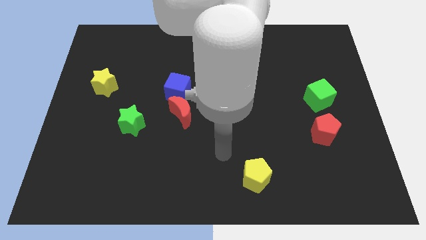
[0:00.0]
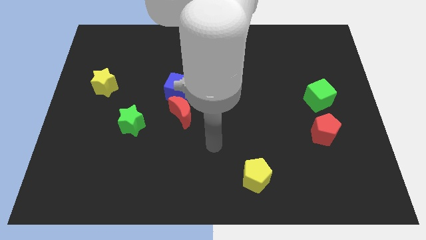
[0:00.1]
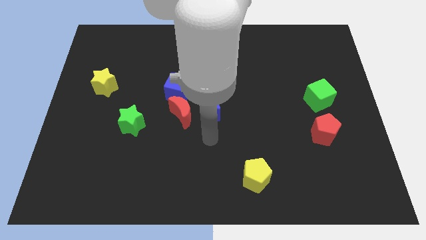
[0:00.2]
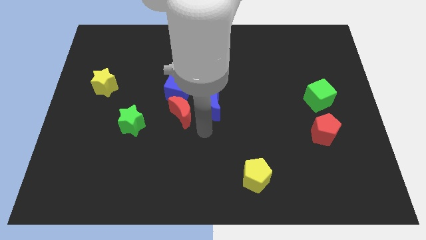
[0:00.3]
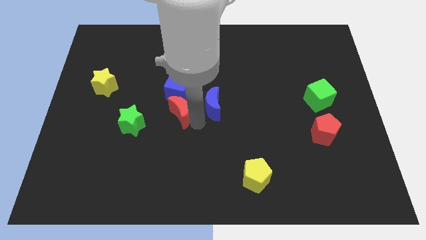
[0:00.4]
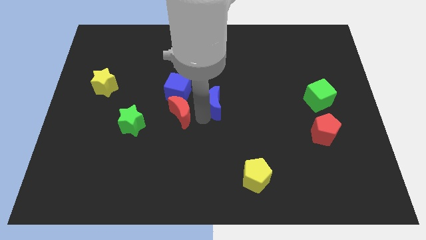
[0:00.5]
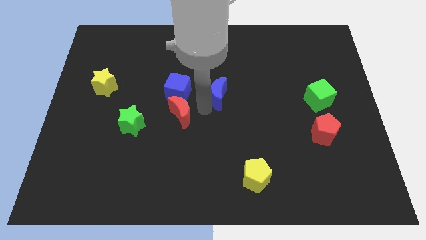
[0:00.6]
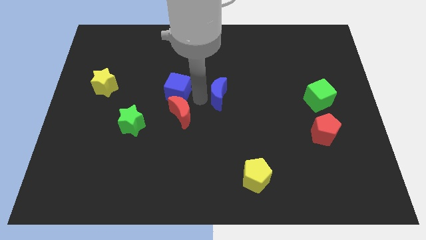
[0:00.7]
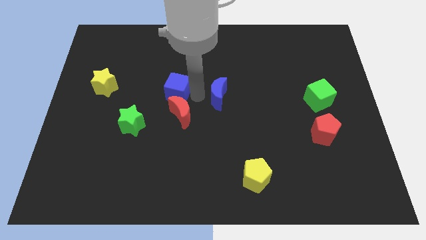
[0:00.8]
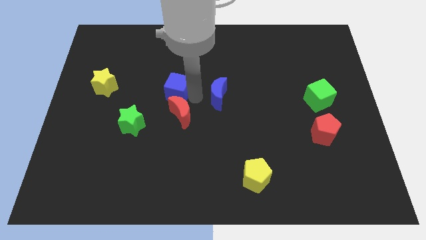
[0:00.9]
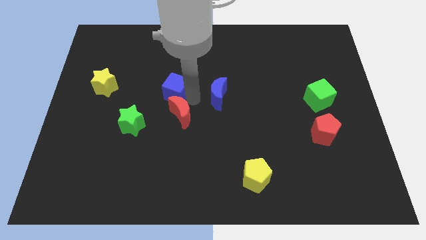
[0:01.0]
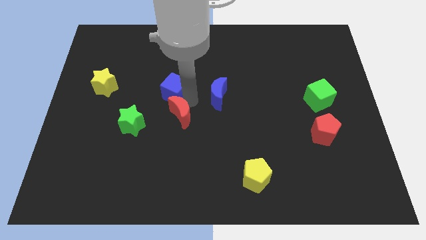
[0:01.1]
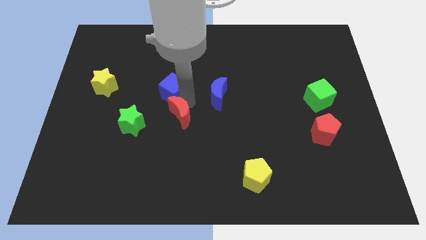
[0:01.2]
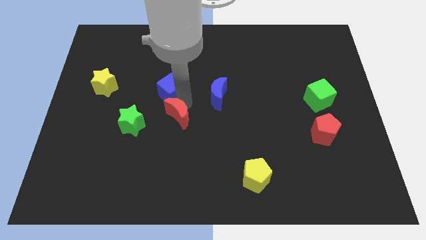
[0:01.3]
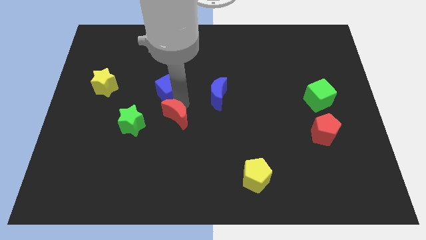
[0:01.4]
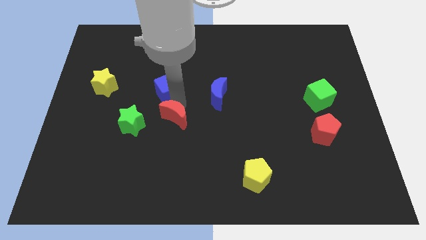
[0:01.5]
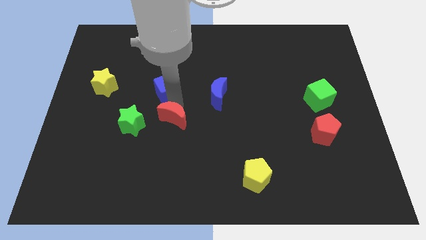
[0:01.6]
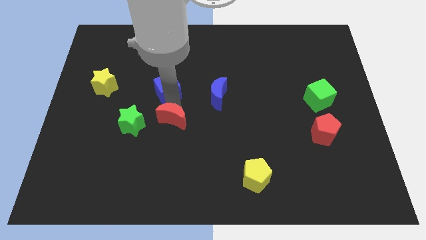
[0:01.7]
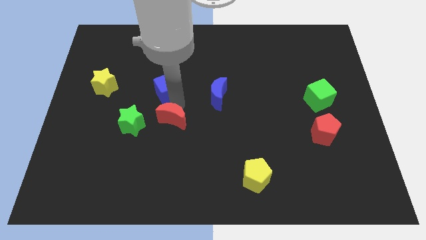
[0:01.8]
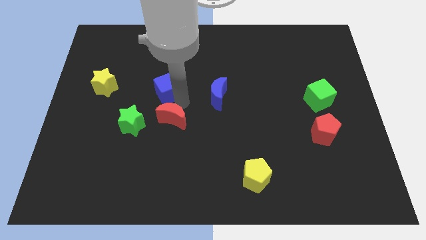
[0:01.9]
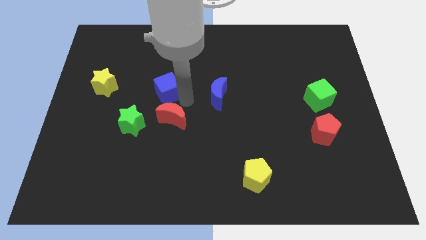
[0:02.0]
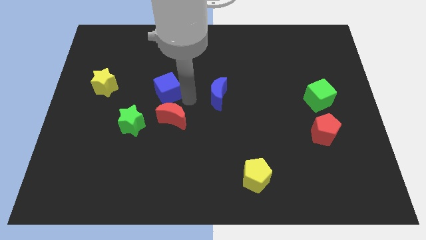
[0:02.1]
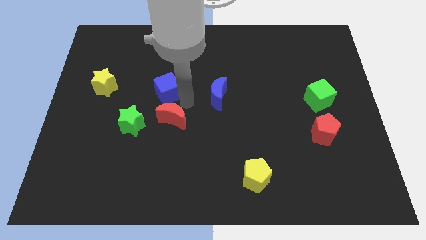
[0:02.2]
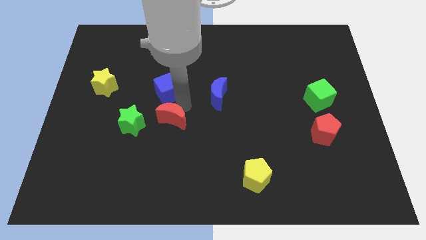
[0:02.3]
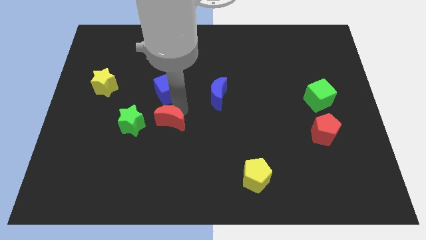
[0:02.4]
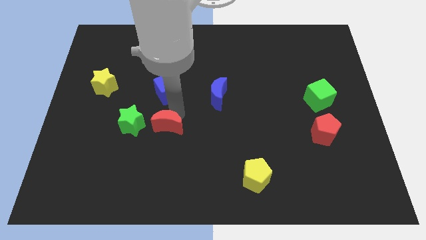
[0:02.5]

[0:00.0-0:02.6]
move the red moon away from the blue cube and blue moon

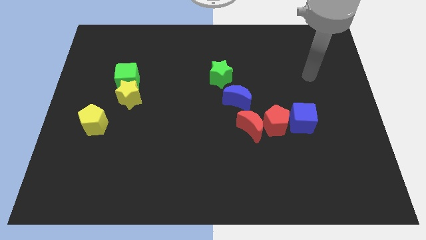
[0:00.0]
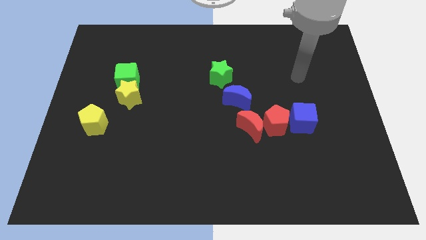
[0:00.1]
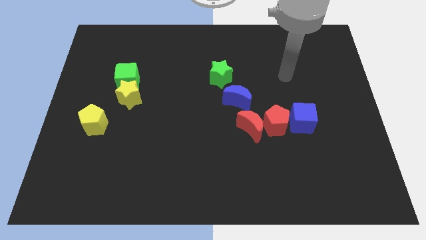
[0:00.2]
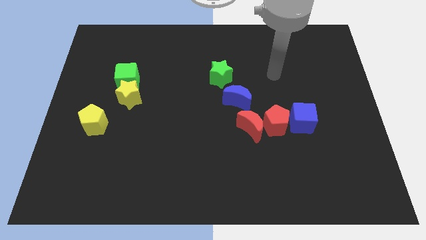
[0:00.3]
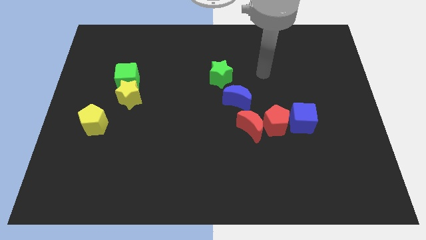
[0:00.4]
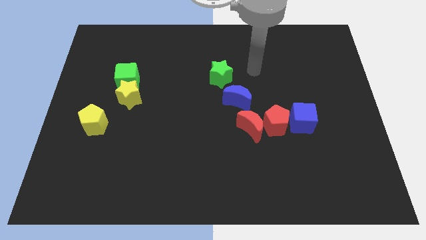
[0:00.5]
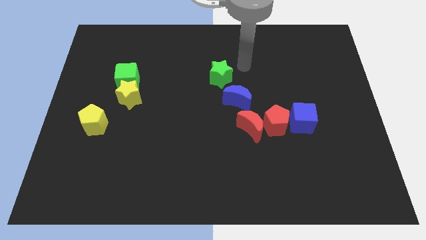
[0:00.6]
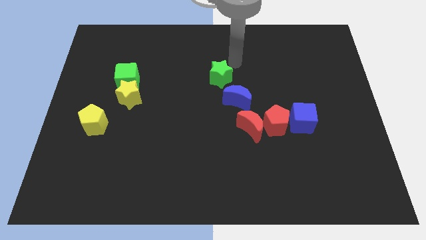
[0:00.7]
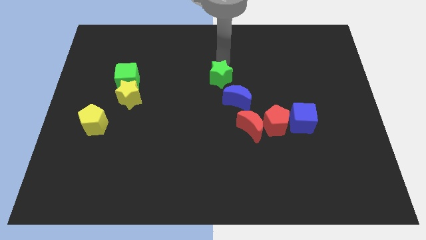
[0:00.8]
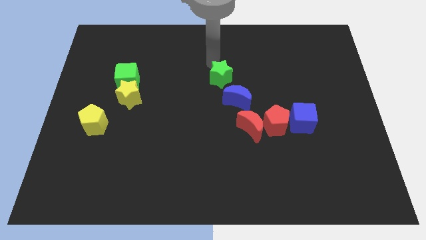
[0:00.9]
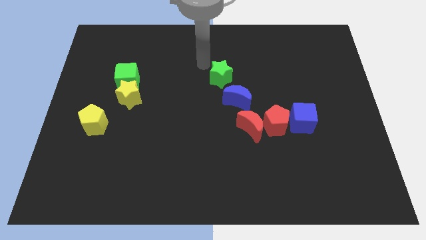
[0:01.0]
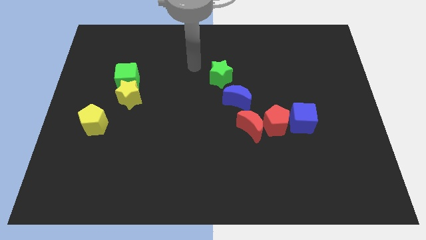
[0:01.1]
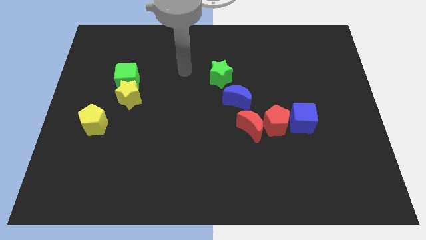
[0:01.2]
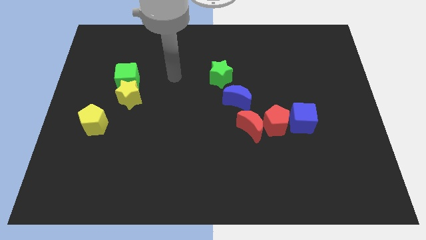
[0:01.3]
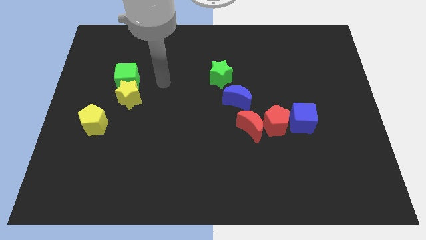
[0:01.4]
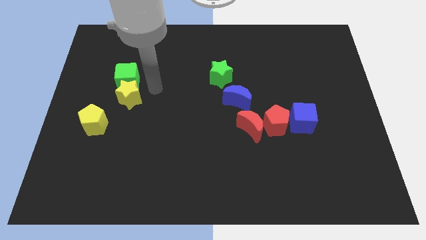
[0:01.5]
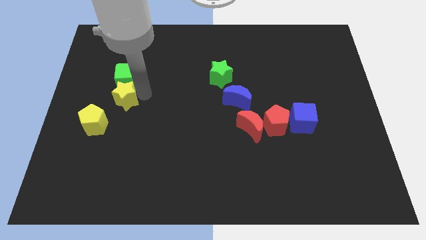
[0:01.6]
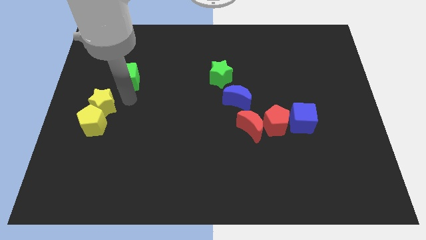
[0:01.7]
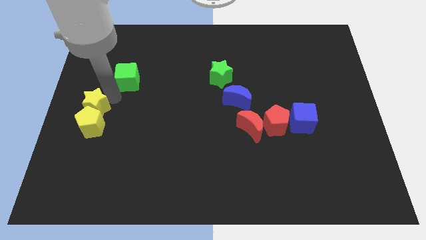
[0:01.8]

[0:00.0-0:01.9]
separate the green cube from the yellow star

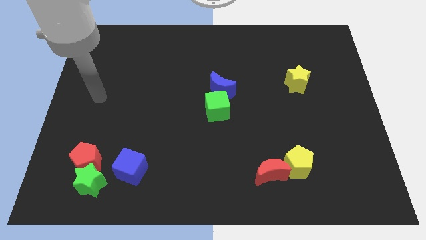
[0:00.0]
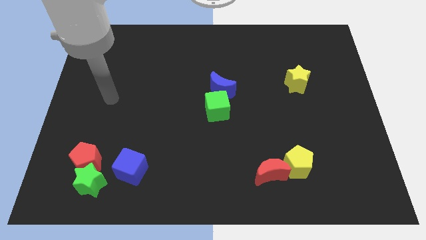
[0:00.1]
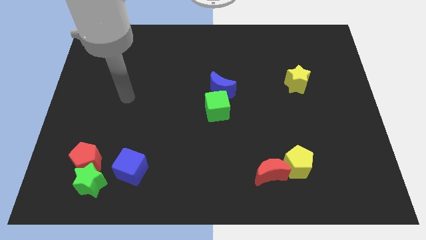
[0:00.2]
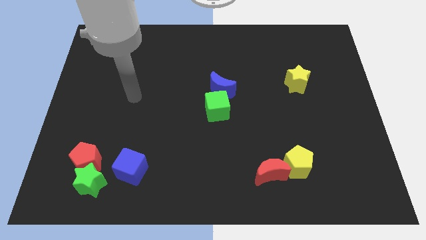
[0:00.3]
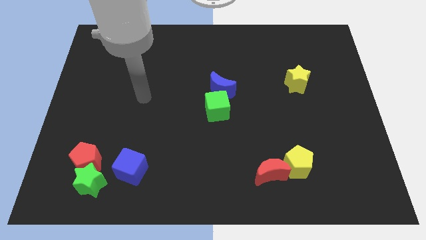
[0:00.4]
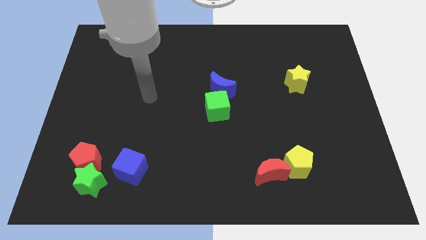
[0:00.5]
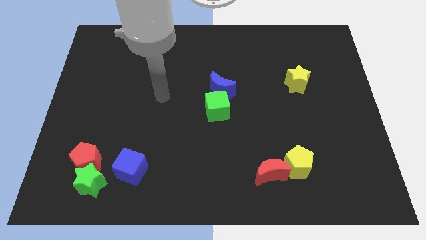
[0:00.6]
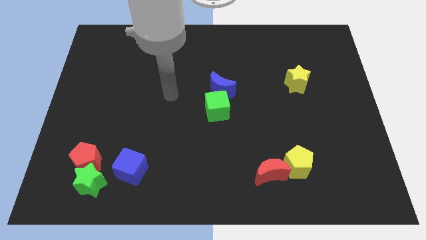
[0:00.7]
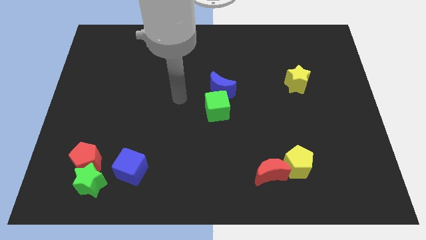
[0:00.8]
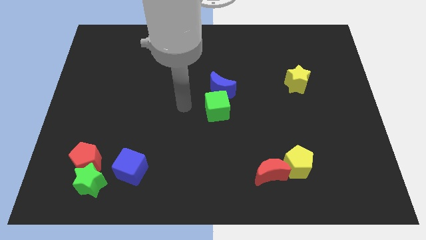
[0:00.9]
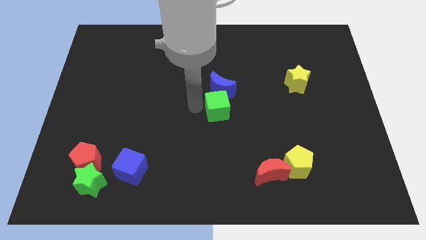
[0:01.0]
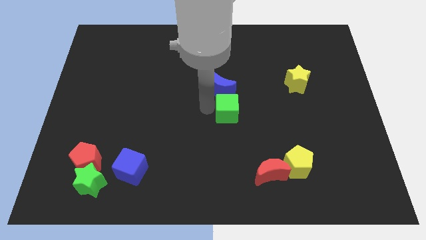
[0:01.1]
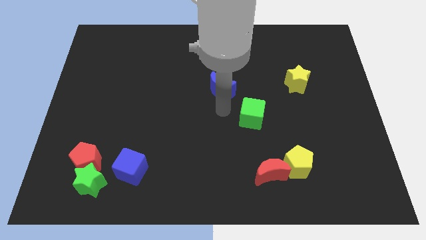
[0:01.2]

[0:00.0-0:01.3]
separate the blue moon from the green cube

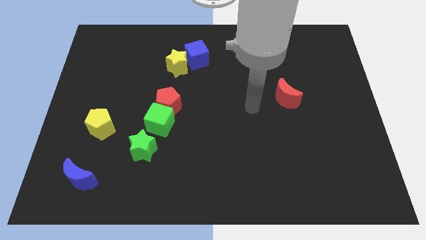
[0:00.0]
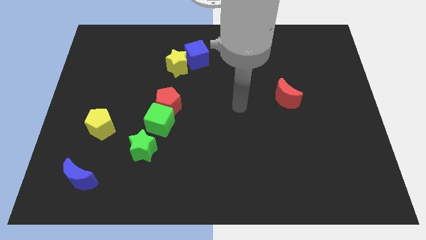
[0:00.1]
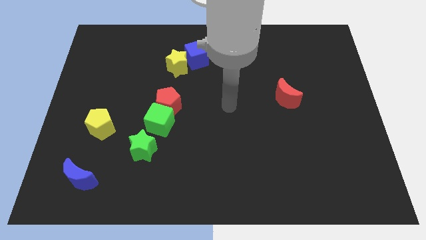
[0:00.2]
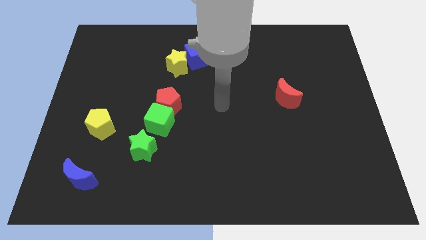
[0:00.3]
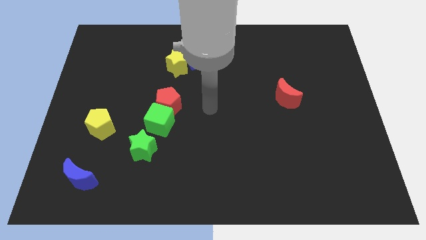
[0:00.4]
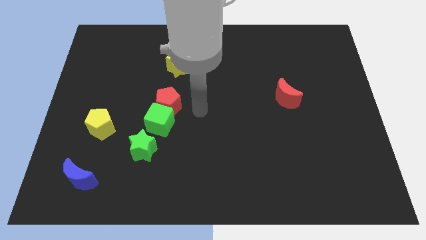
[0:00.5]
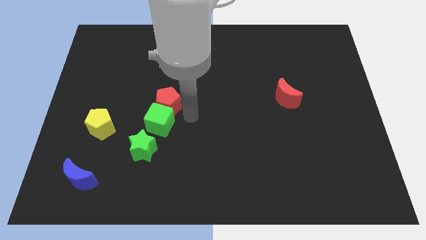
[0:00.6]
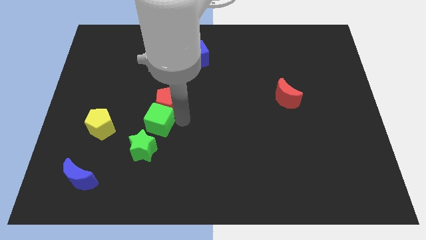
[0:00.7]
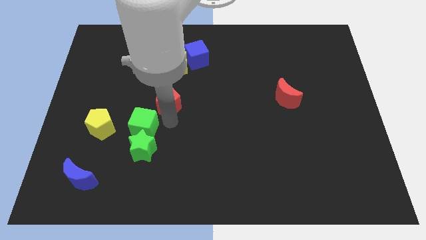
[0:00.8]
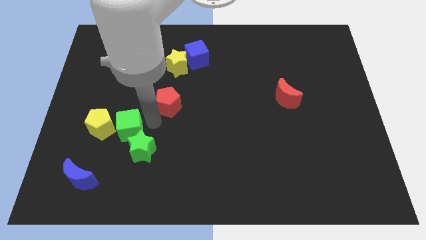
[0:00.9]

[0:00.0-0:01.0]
pull the red pentagon apart from the green cube

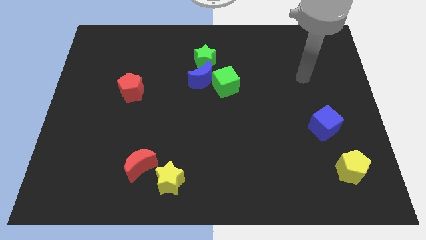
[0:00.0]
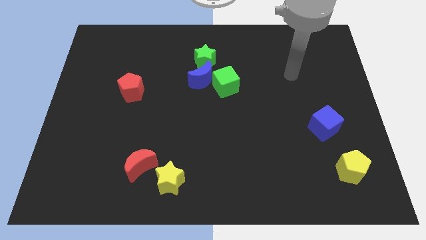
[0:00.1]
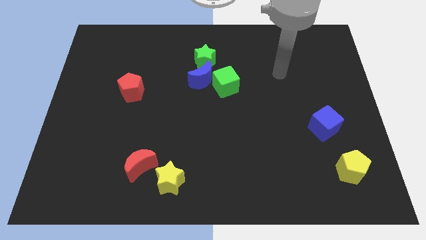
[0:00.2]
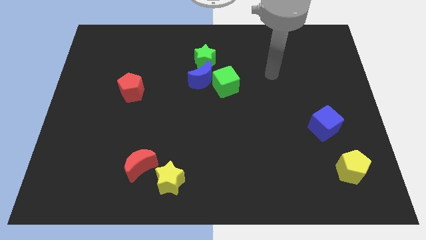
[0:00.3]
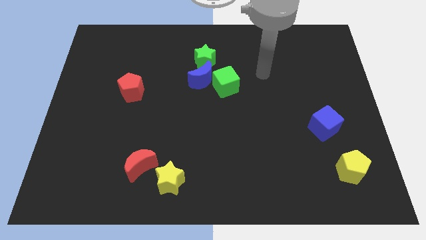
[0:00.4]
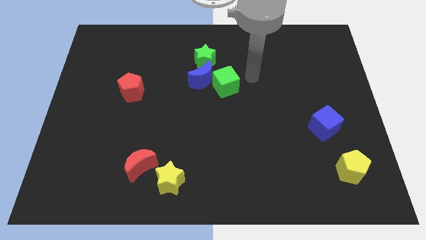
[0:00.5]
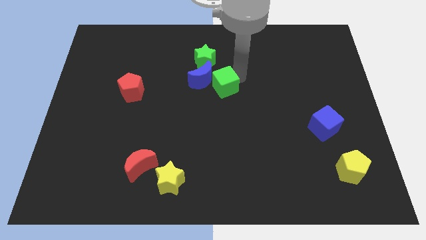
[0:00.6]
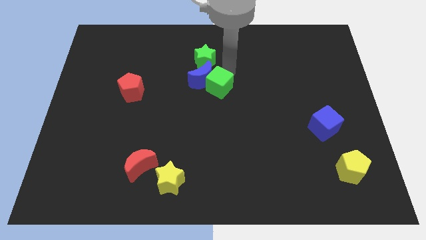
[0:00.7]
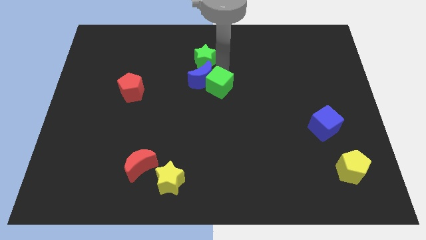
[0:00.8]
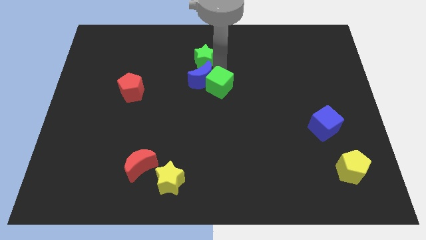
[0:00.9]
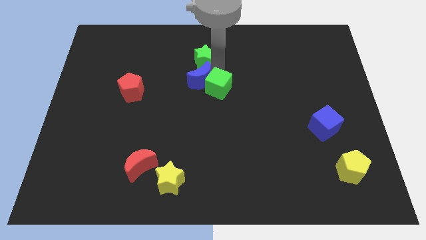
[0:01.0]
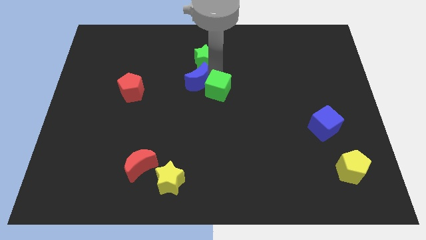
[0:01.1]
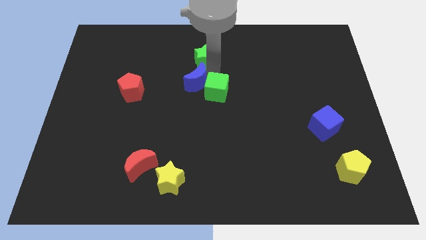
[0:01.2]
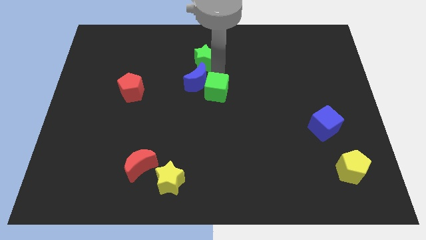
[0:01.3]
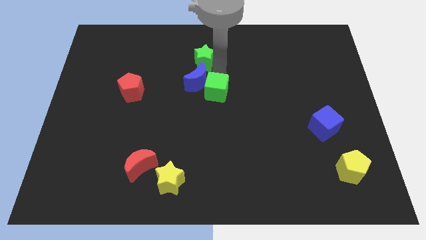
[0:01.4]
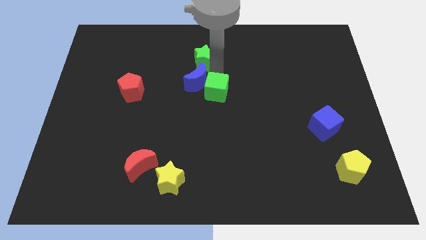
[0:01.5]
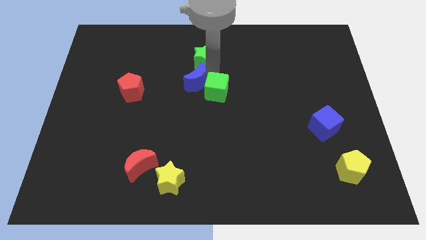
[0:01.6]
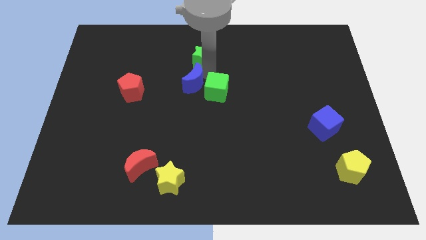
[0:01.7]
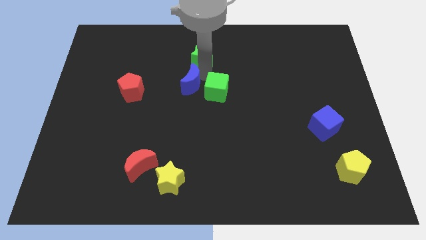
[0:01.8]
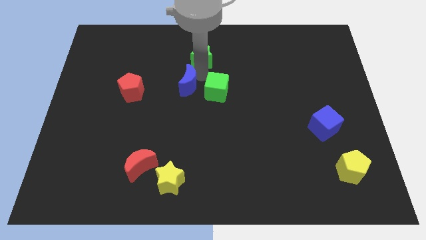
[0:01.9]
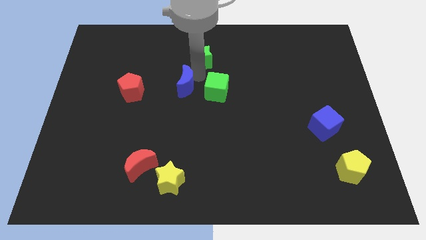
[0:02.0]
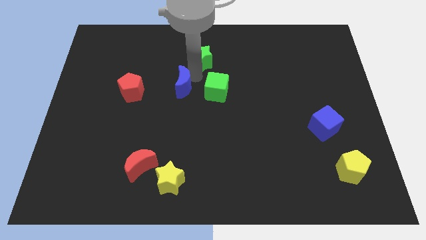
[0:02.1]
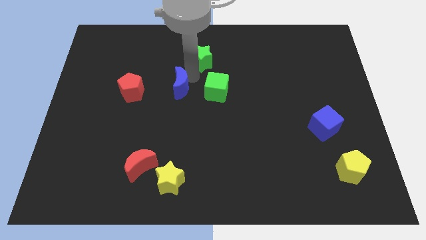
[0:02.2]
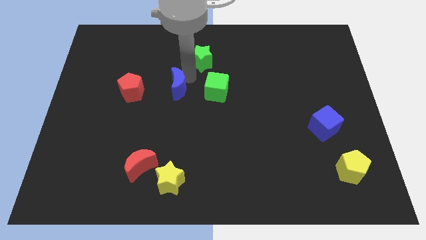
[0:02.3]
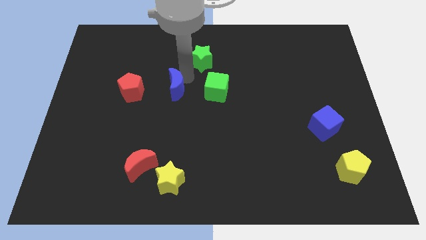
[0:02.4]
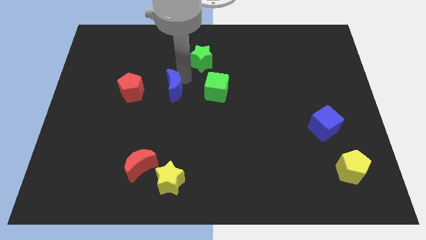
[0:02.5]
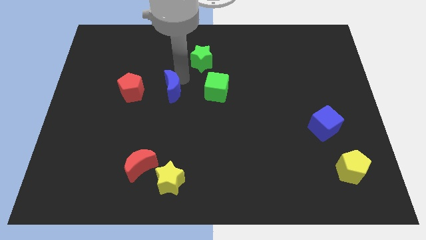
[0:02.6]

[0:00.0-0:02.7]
move the blue moon away from the green cube and green star
